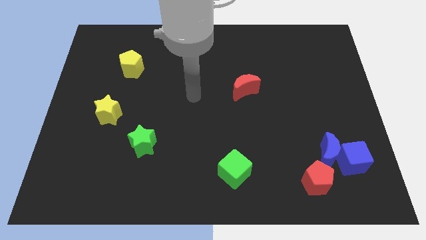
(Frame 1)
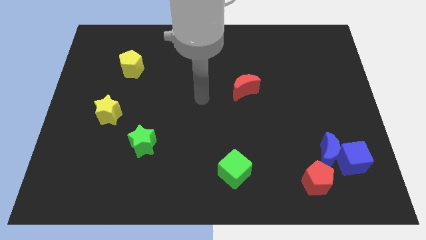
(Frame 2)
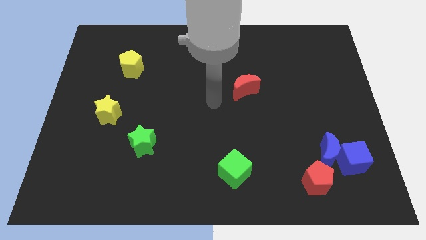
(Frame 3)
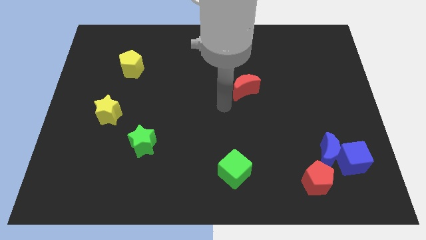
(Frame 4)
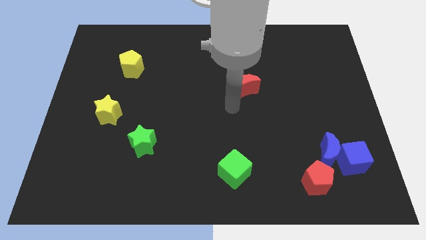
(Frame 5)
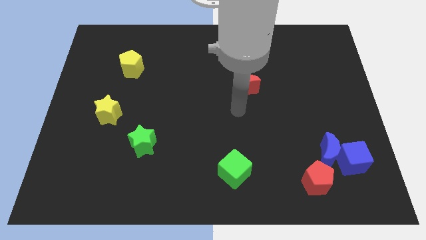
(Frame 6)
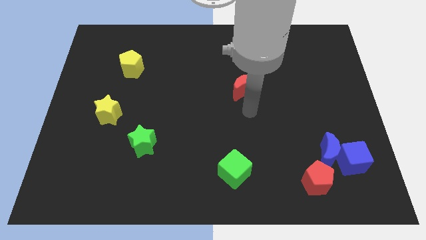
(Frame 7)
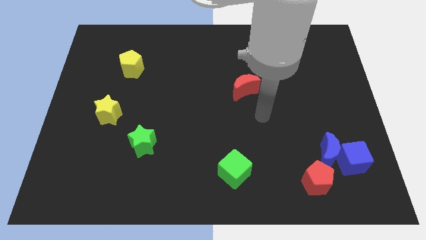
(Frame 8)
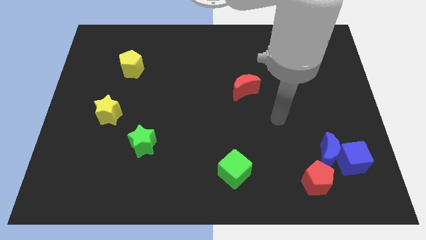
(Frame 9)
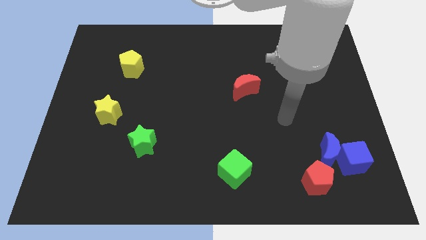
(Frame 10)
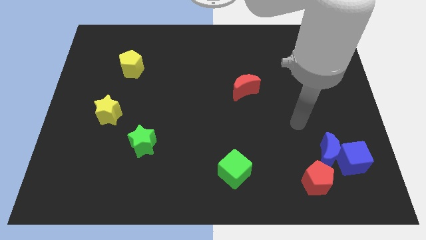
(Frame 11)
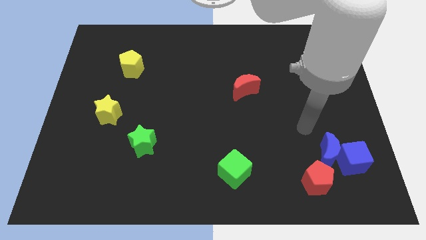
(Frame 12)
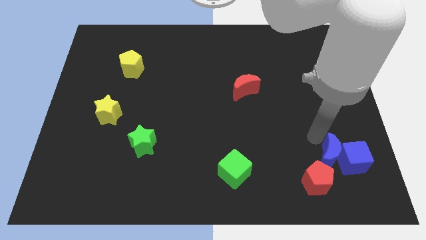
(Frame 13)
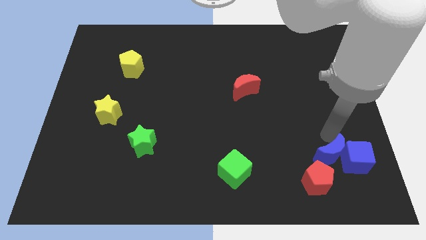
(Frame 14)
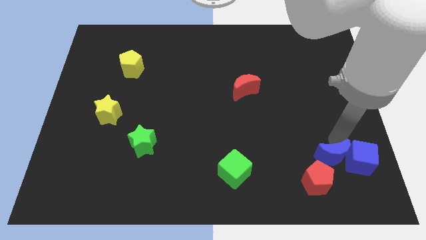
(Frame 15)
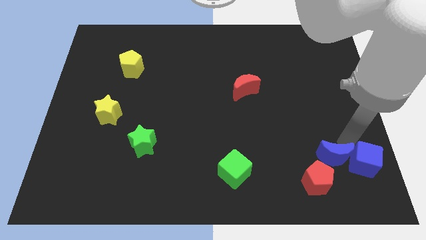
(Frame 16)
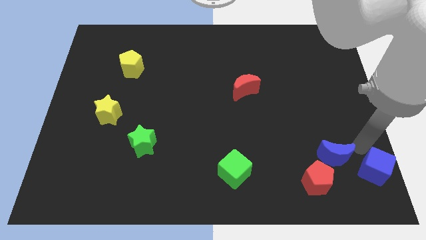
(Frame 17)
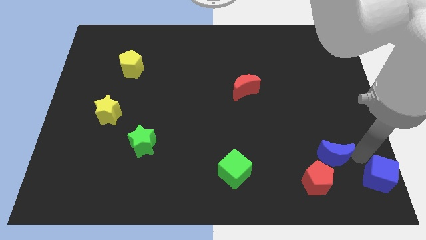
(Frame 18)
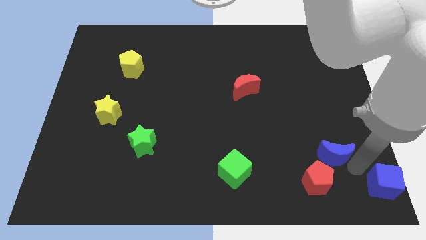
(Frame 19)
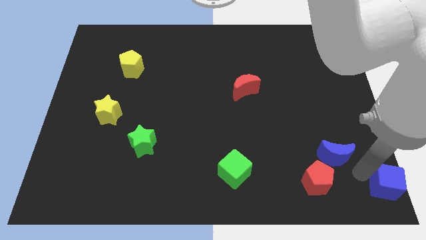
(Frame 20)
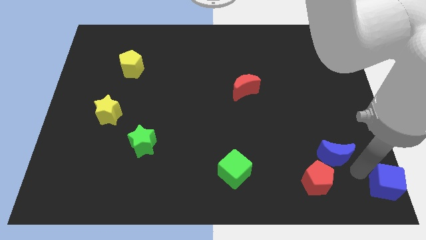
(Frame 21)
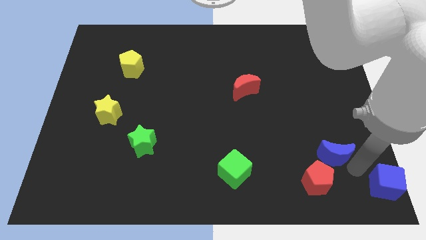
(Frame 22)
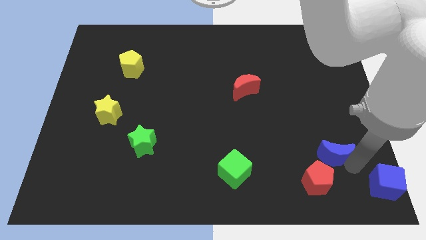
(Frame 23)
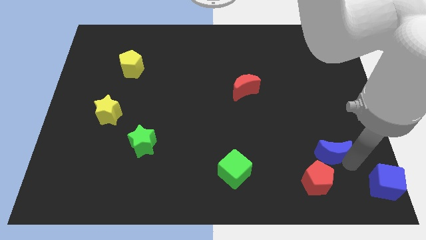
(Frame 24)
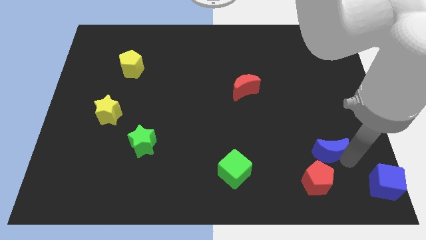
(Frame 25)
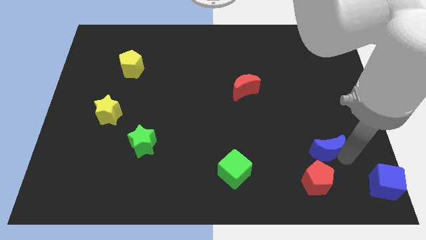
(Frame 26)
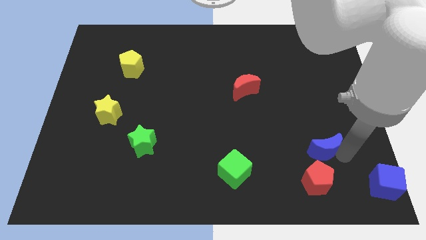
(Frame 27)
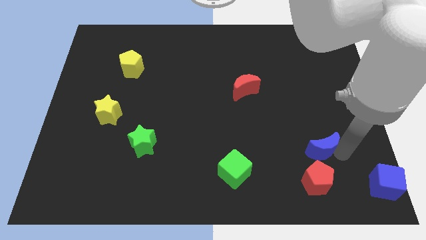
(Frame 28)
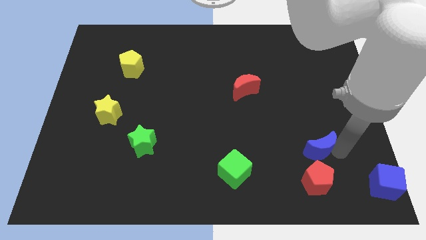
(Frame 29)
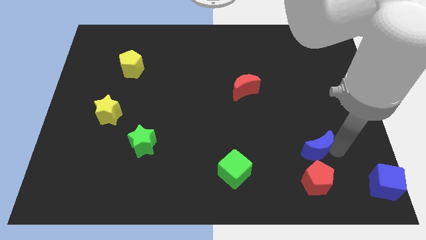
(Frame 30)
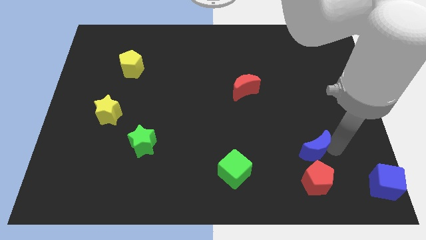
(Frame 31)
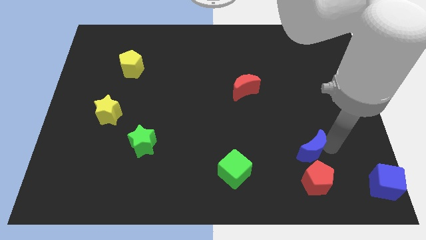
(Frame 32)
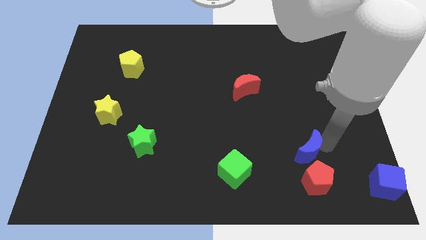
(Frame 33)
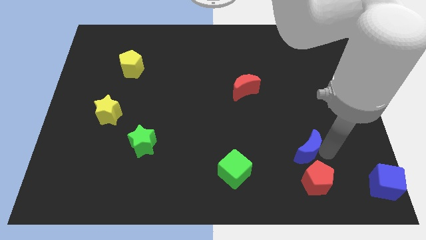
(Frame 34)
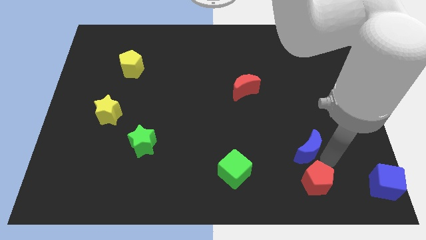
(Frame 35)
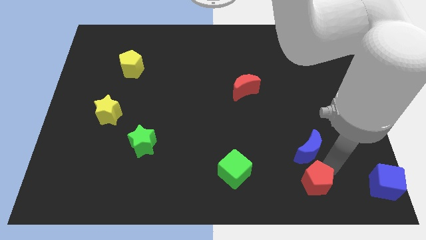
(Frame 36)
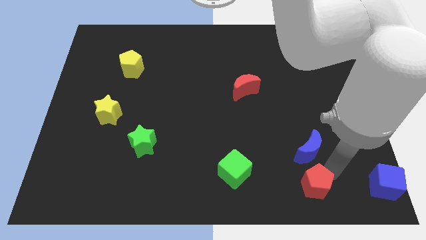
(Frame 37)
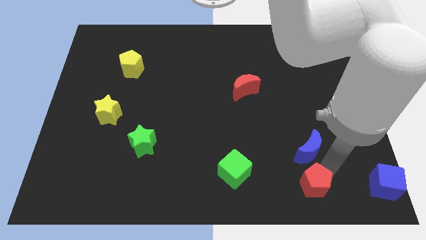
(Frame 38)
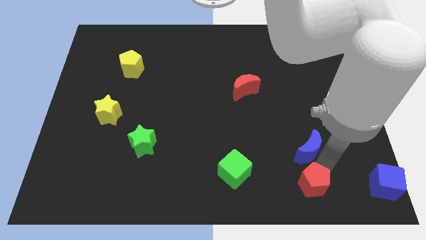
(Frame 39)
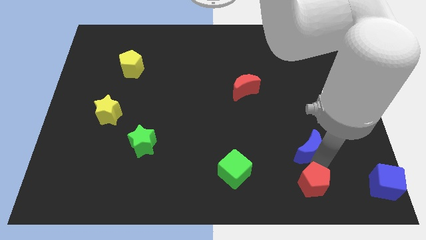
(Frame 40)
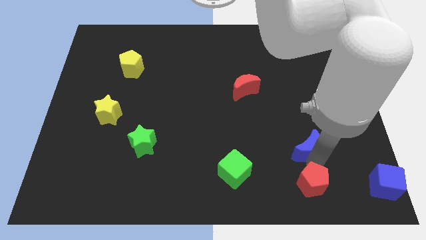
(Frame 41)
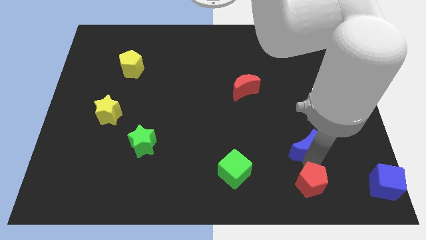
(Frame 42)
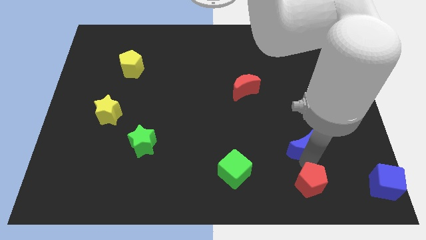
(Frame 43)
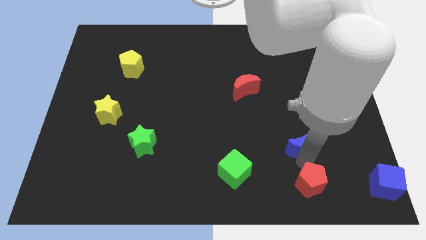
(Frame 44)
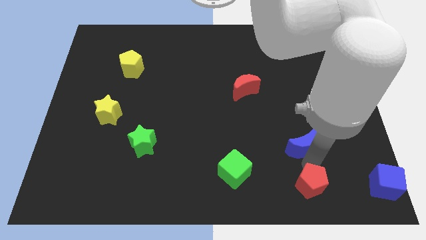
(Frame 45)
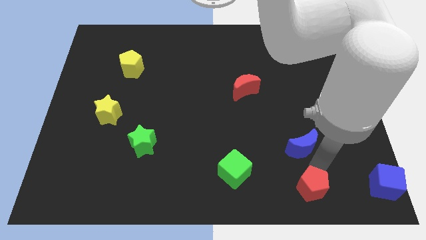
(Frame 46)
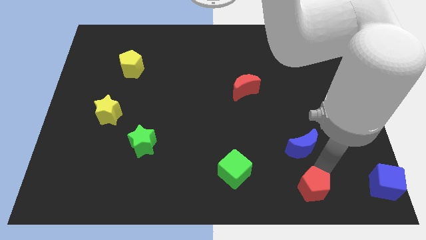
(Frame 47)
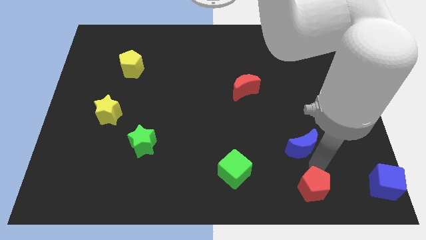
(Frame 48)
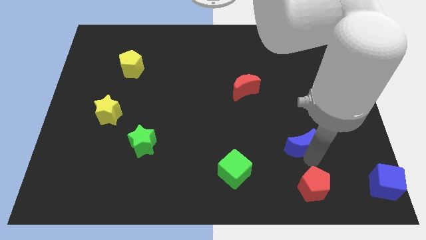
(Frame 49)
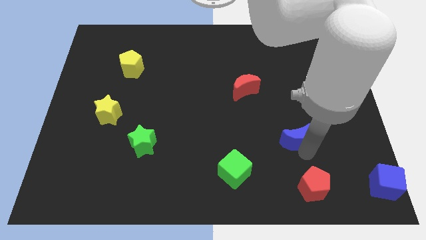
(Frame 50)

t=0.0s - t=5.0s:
slightly push the blue moon diagonally upwards and to the left

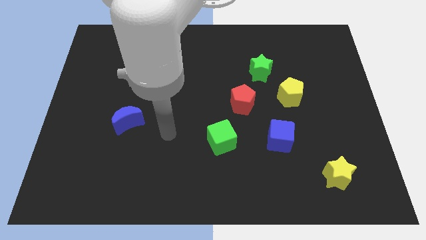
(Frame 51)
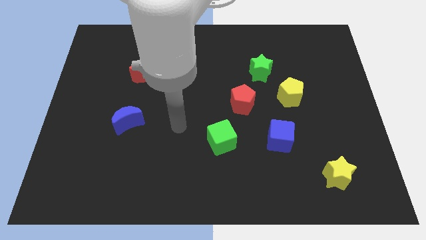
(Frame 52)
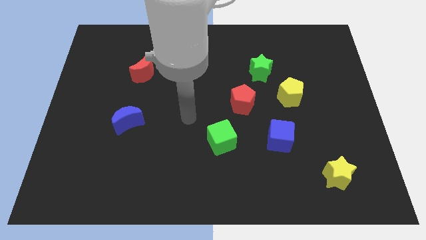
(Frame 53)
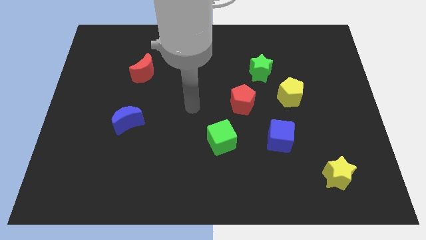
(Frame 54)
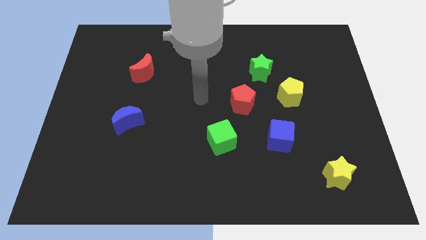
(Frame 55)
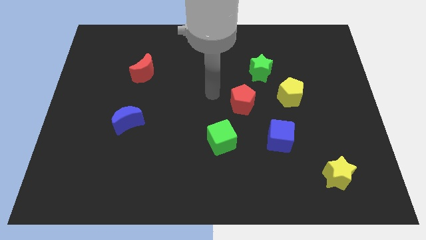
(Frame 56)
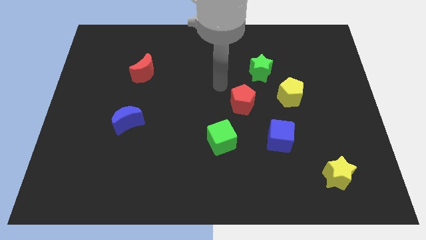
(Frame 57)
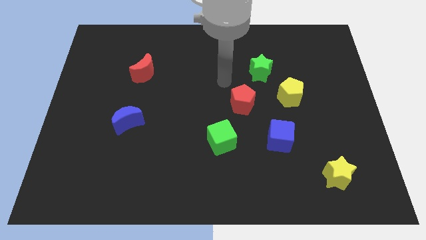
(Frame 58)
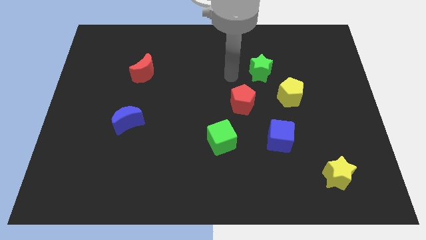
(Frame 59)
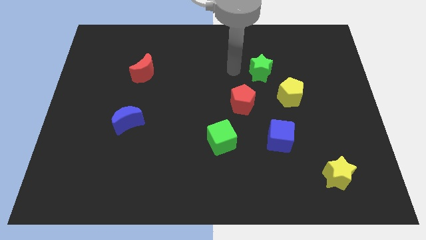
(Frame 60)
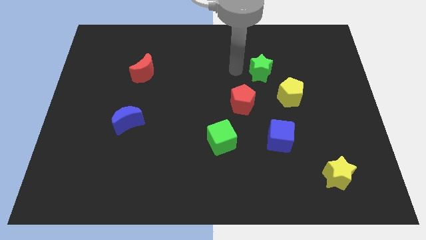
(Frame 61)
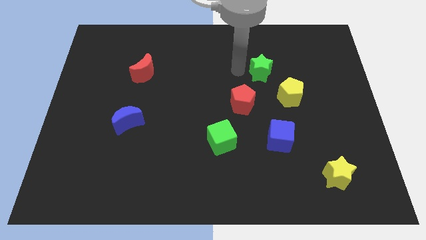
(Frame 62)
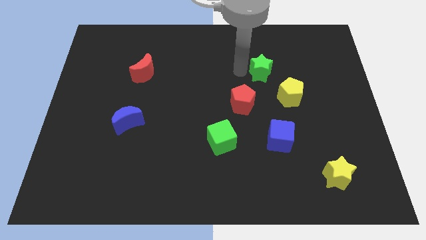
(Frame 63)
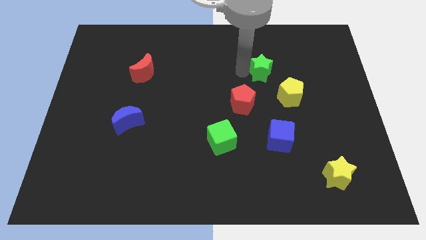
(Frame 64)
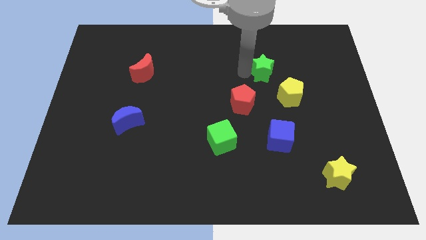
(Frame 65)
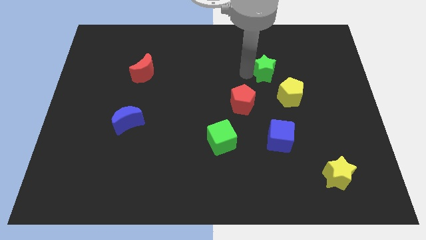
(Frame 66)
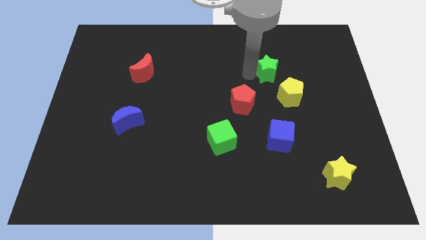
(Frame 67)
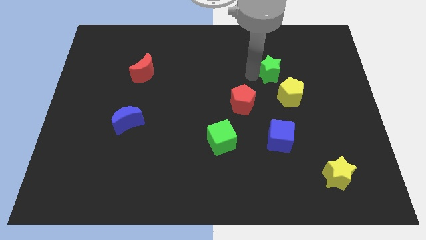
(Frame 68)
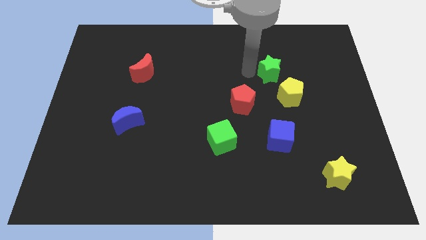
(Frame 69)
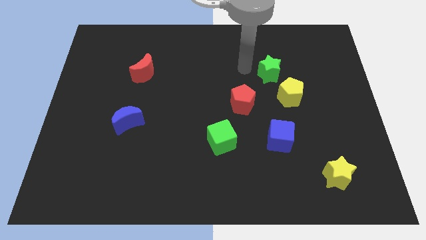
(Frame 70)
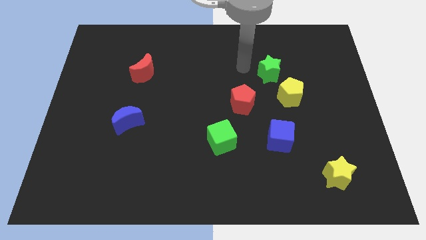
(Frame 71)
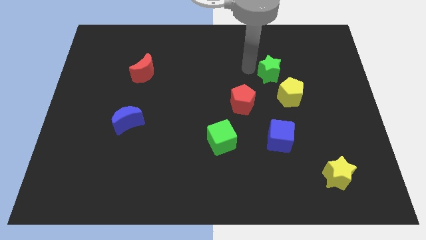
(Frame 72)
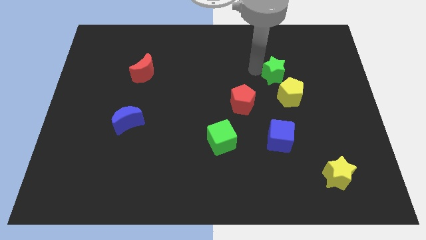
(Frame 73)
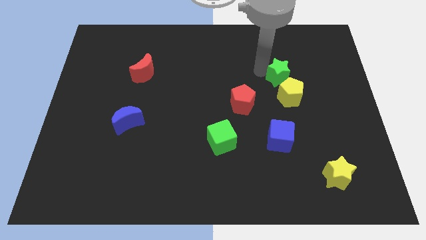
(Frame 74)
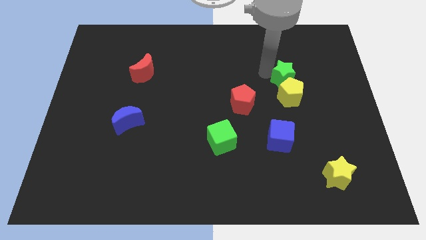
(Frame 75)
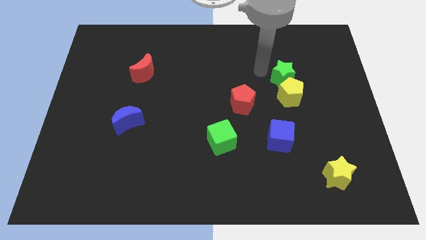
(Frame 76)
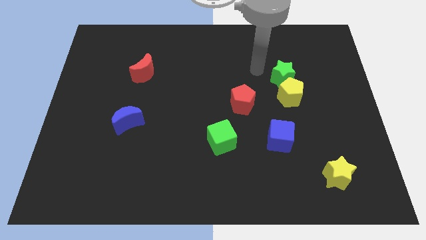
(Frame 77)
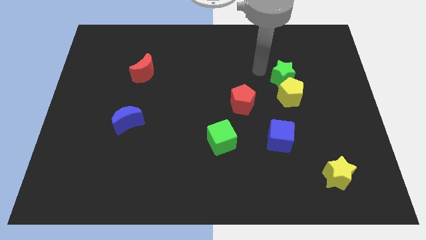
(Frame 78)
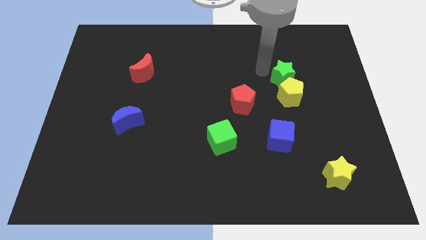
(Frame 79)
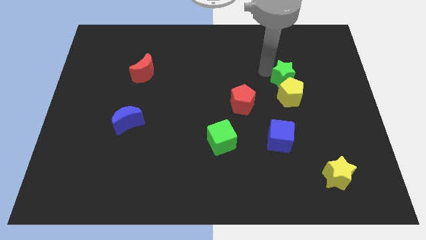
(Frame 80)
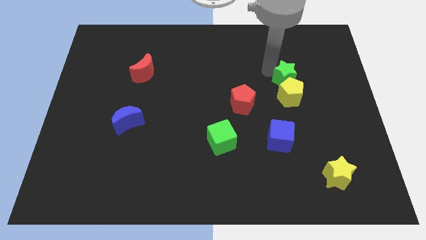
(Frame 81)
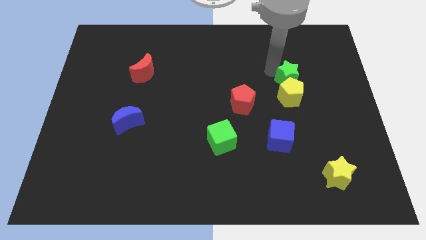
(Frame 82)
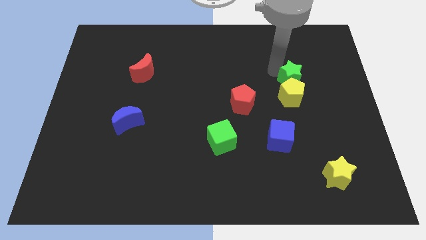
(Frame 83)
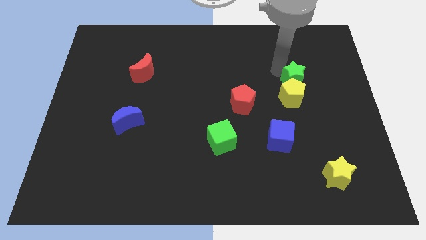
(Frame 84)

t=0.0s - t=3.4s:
slightly slide the green star diagonally downwards and to the right
